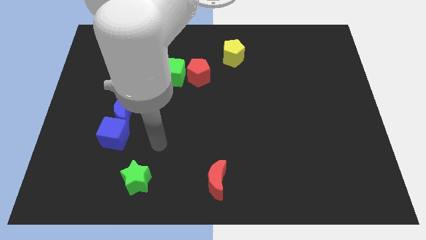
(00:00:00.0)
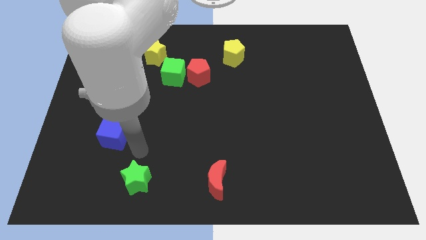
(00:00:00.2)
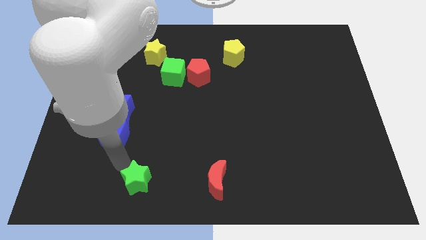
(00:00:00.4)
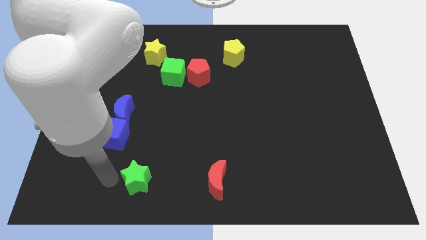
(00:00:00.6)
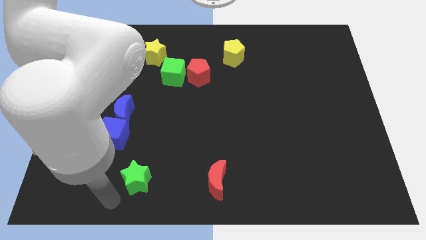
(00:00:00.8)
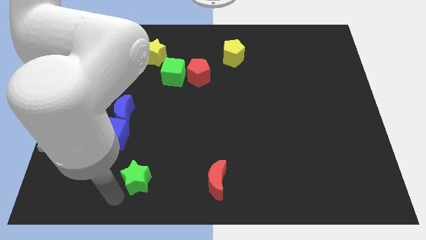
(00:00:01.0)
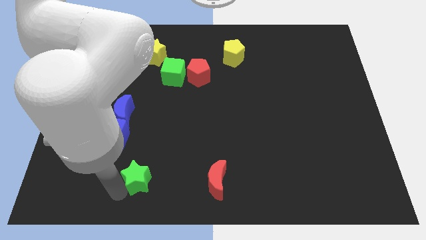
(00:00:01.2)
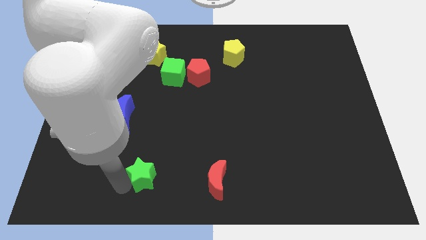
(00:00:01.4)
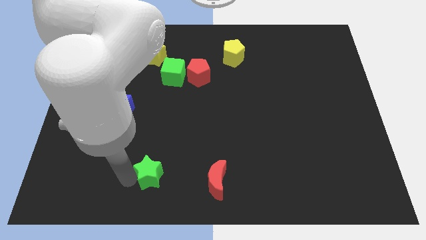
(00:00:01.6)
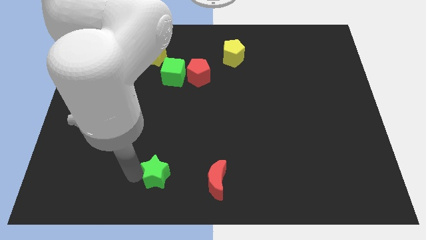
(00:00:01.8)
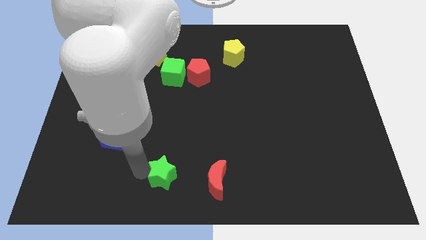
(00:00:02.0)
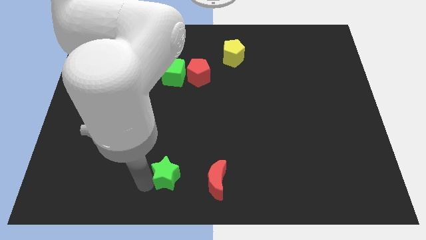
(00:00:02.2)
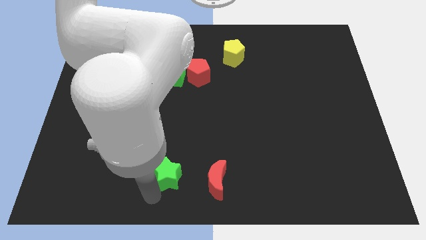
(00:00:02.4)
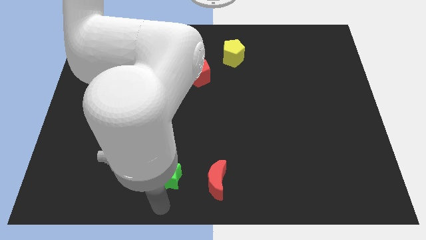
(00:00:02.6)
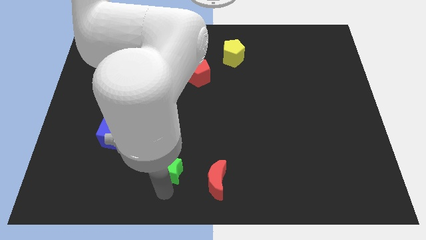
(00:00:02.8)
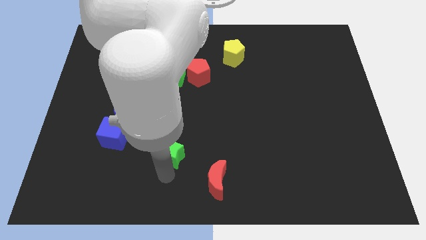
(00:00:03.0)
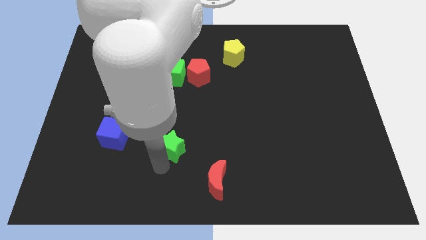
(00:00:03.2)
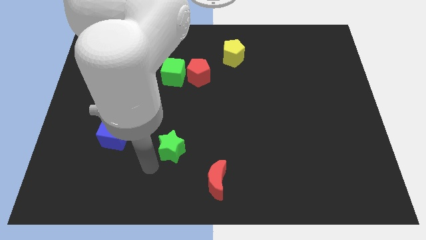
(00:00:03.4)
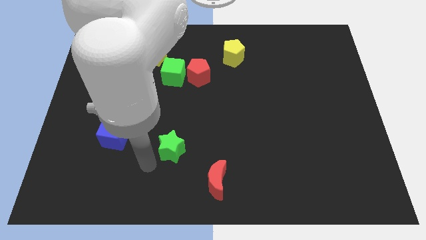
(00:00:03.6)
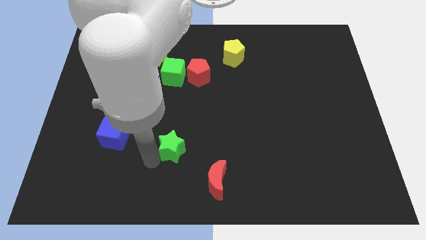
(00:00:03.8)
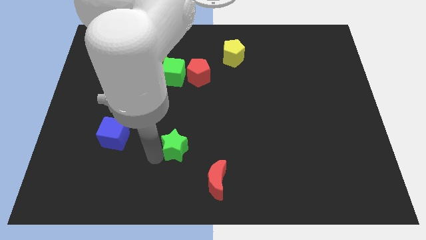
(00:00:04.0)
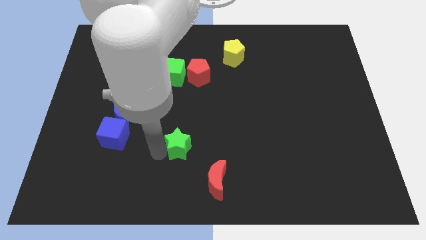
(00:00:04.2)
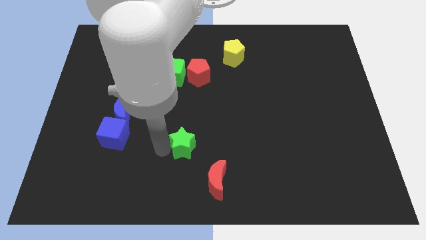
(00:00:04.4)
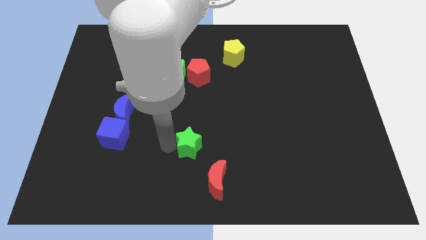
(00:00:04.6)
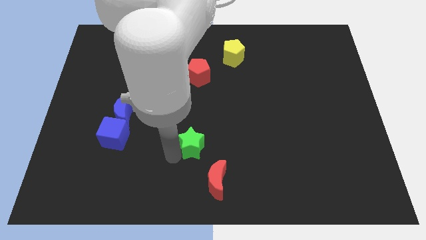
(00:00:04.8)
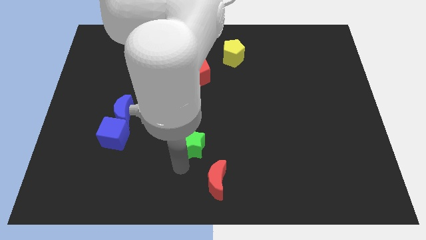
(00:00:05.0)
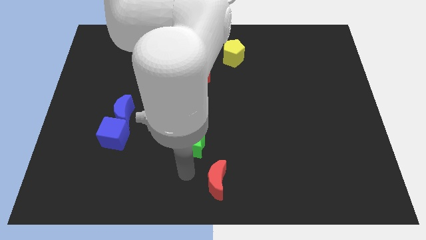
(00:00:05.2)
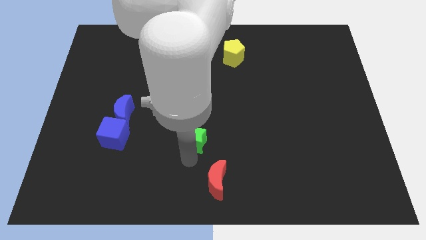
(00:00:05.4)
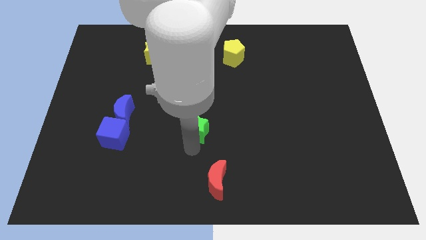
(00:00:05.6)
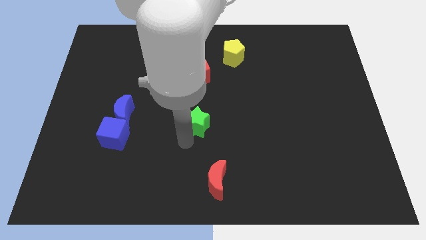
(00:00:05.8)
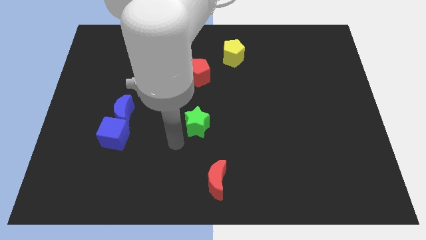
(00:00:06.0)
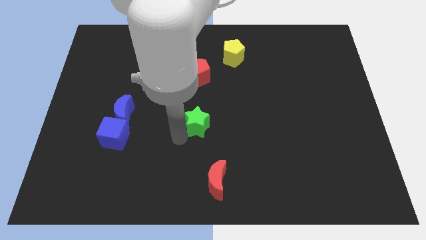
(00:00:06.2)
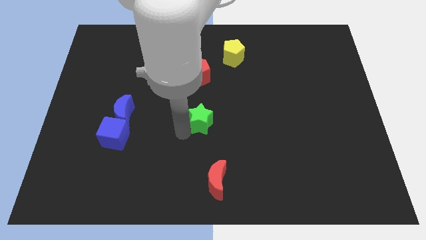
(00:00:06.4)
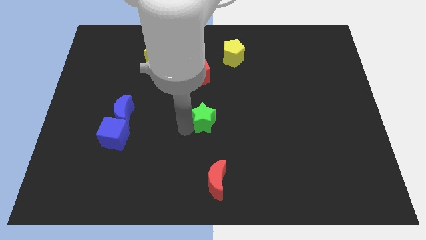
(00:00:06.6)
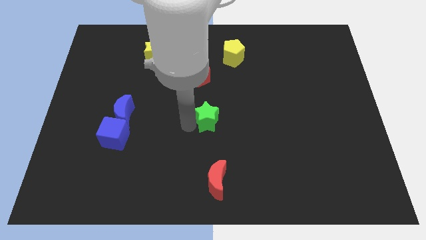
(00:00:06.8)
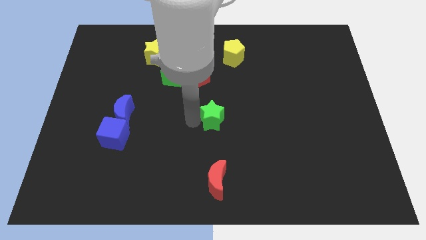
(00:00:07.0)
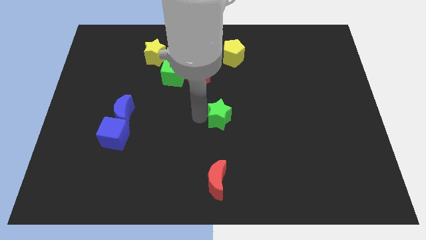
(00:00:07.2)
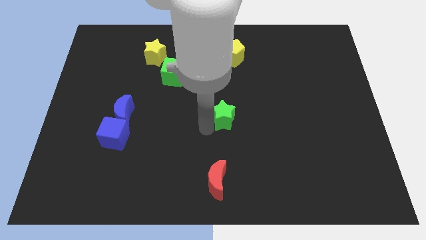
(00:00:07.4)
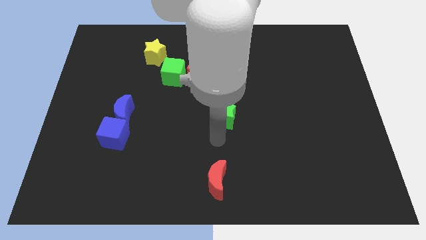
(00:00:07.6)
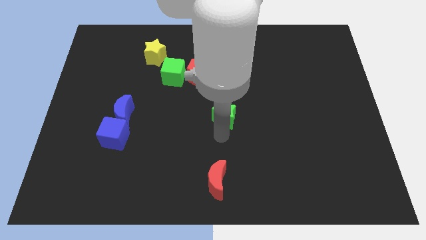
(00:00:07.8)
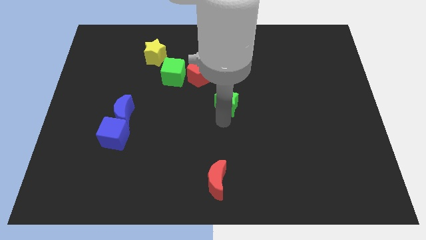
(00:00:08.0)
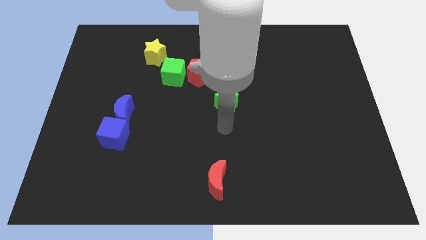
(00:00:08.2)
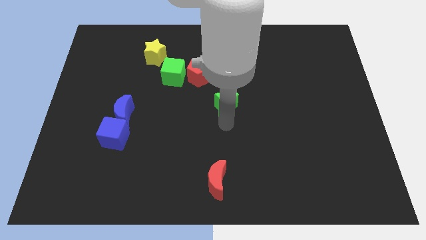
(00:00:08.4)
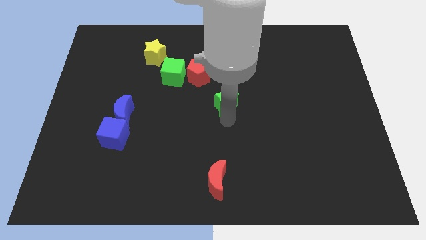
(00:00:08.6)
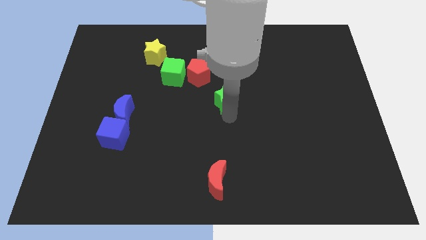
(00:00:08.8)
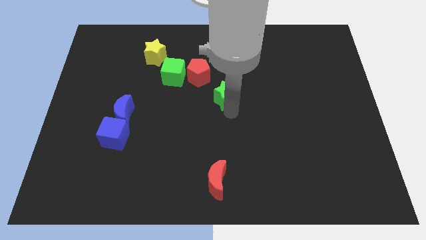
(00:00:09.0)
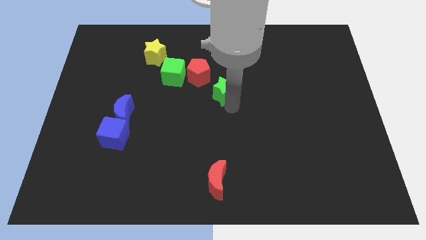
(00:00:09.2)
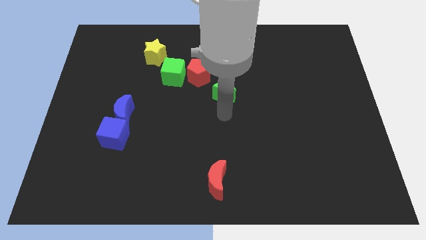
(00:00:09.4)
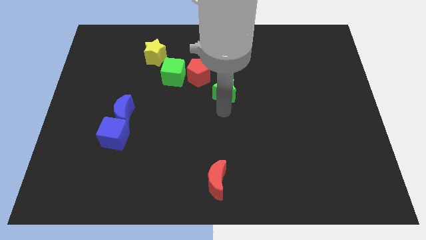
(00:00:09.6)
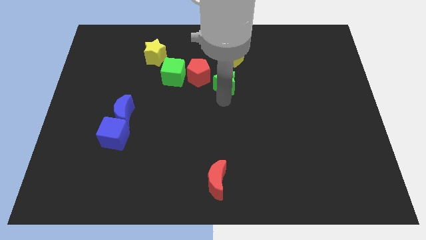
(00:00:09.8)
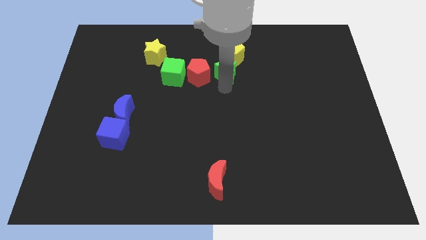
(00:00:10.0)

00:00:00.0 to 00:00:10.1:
push the green star to the top right of the red pentagon

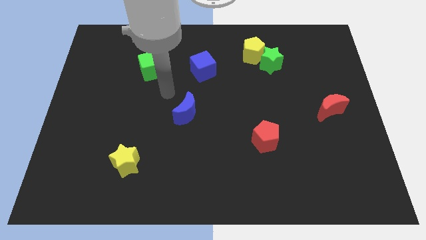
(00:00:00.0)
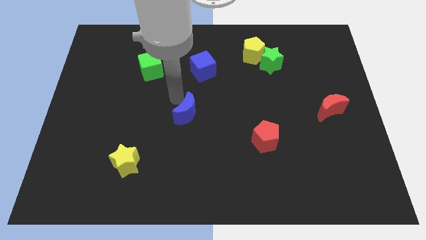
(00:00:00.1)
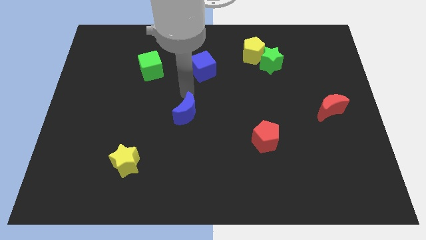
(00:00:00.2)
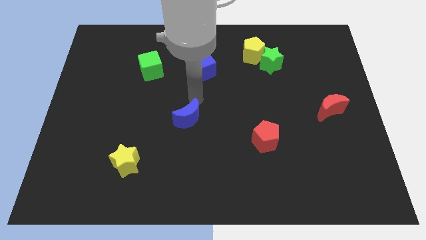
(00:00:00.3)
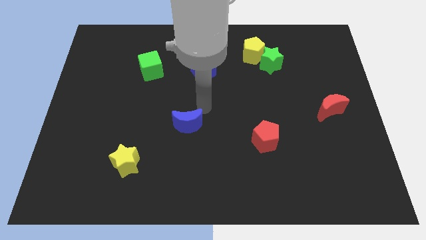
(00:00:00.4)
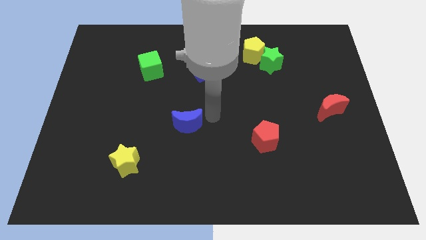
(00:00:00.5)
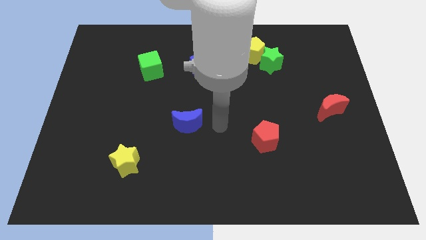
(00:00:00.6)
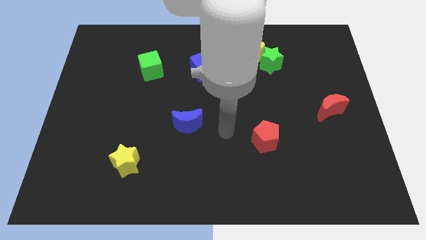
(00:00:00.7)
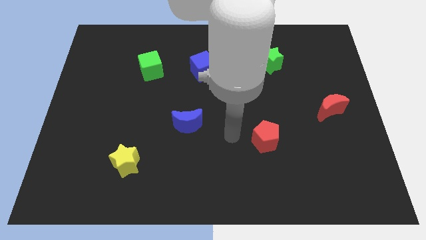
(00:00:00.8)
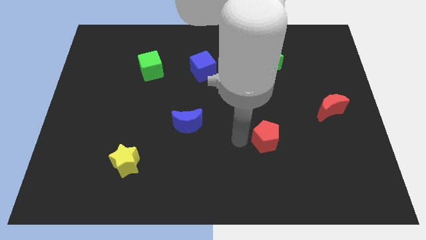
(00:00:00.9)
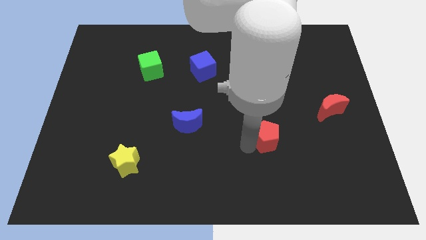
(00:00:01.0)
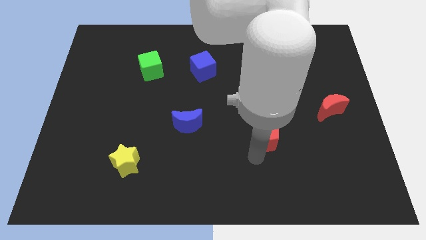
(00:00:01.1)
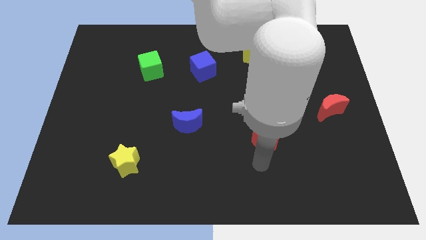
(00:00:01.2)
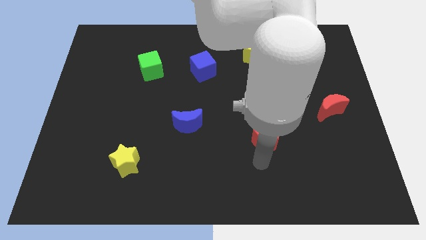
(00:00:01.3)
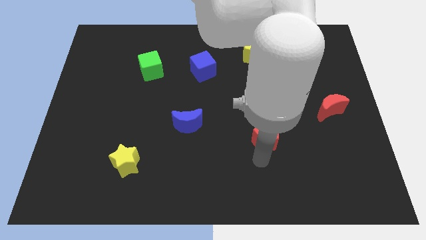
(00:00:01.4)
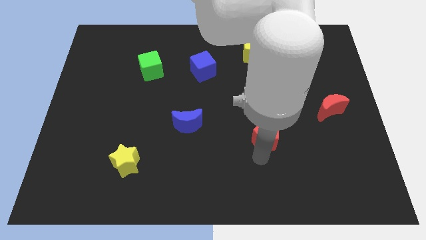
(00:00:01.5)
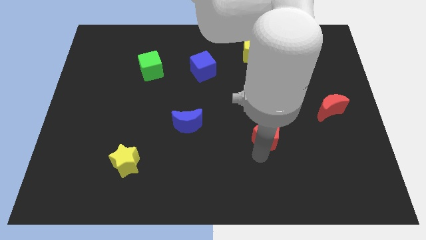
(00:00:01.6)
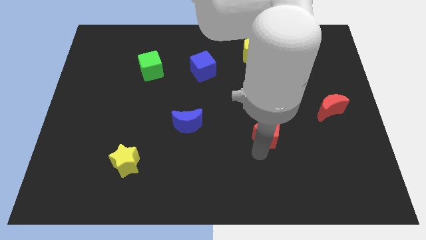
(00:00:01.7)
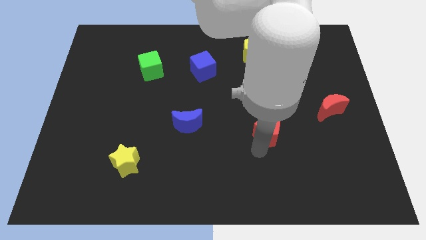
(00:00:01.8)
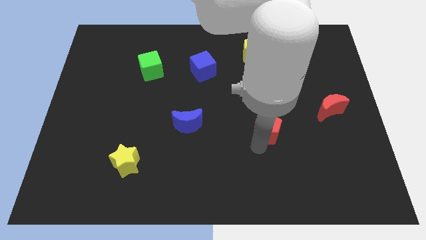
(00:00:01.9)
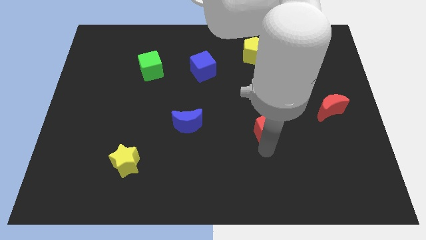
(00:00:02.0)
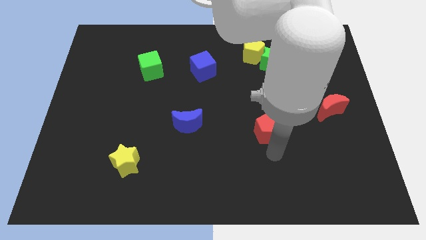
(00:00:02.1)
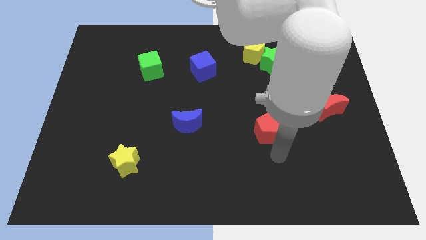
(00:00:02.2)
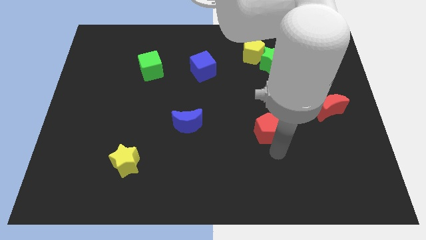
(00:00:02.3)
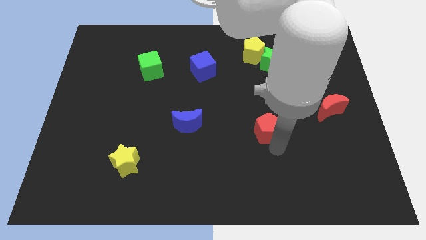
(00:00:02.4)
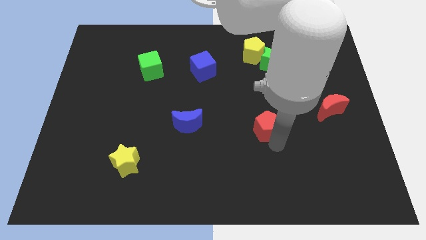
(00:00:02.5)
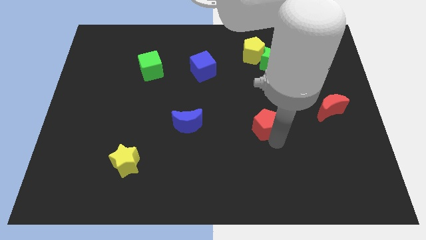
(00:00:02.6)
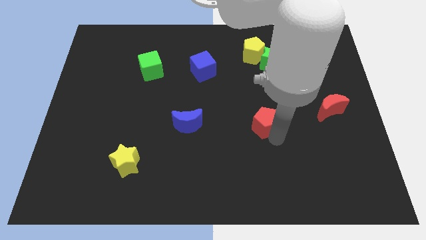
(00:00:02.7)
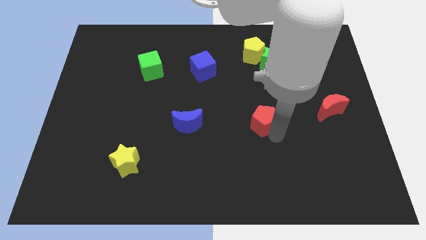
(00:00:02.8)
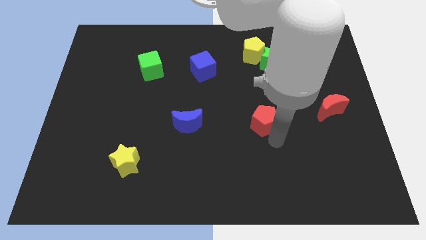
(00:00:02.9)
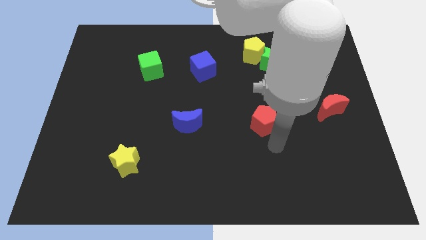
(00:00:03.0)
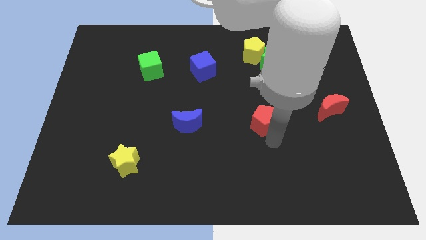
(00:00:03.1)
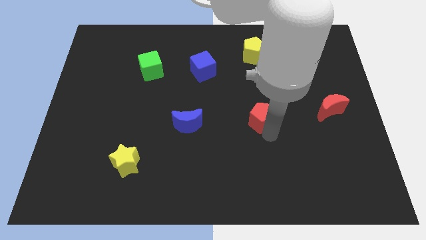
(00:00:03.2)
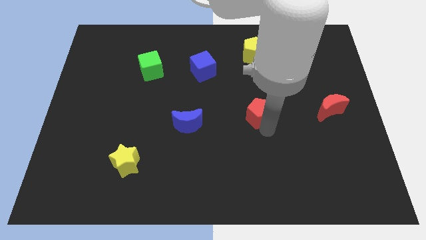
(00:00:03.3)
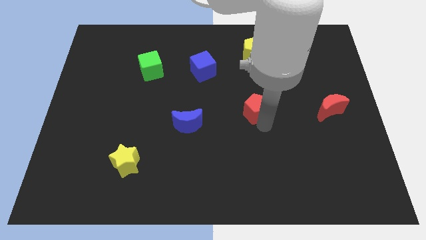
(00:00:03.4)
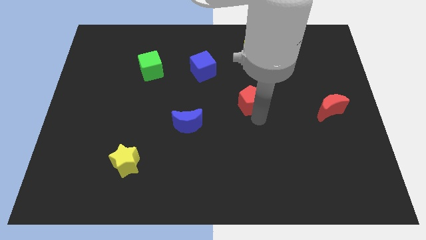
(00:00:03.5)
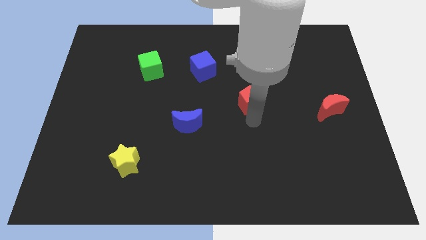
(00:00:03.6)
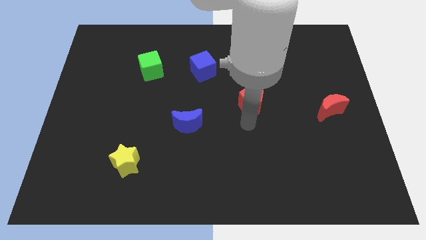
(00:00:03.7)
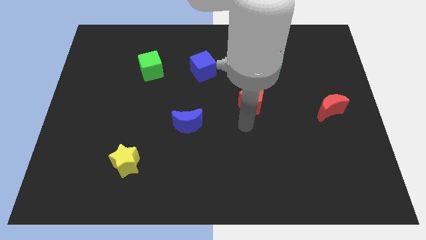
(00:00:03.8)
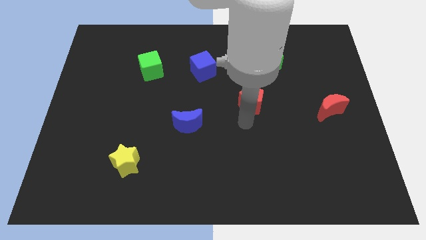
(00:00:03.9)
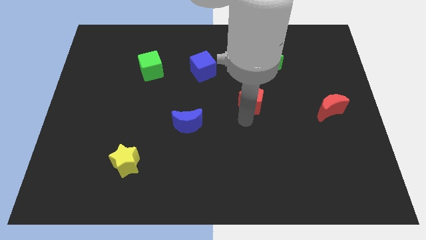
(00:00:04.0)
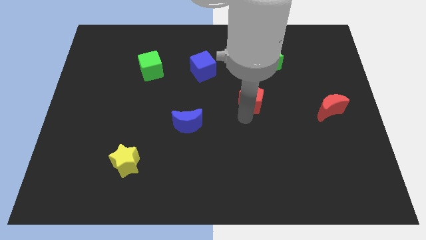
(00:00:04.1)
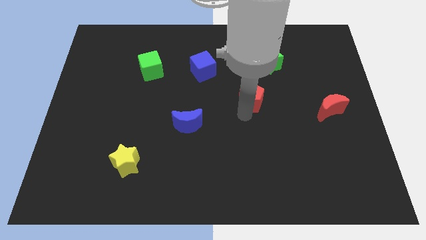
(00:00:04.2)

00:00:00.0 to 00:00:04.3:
slide the red pentagon to the bottom side of the yellow pentagon
